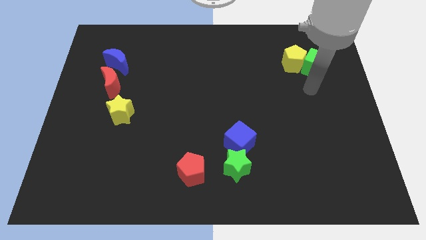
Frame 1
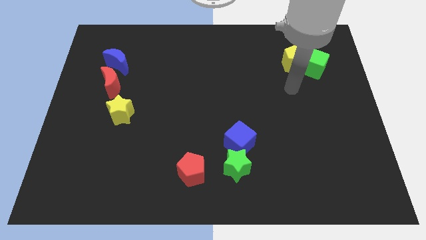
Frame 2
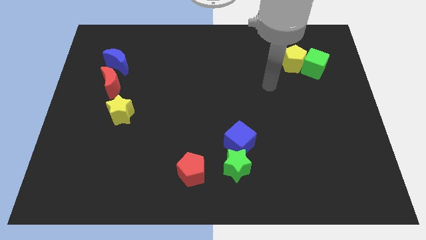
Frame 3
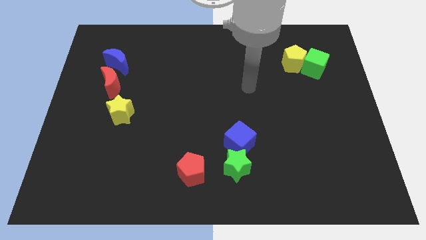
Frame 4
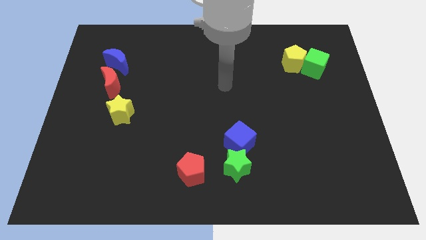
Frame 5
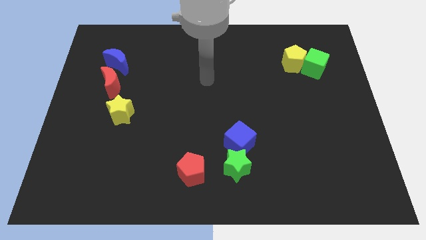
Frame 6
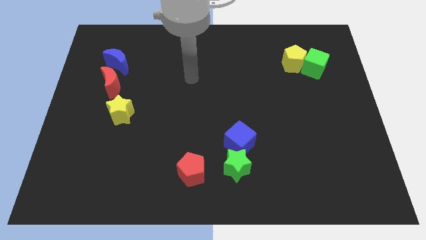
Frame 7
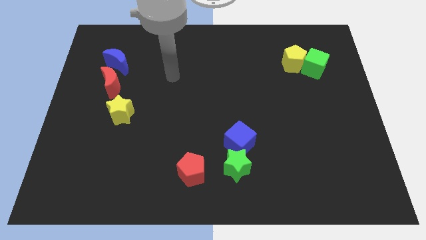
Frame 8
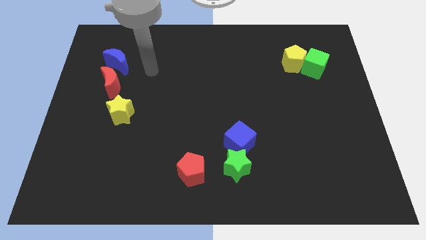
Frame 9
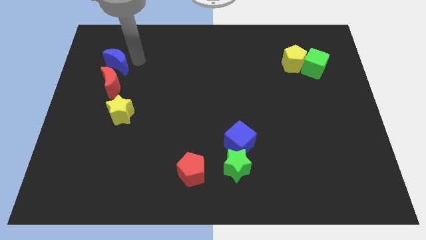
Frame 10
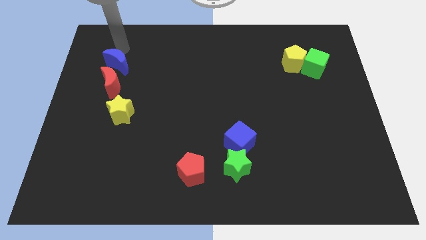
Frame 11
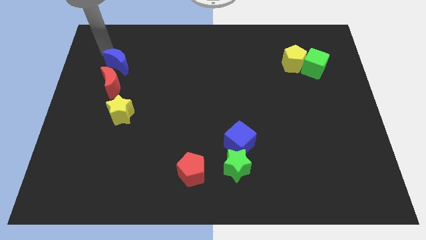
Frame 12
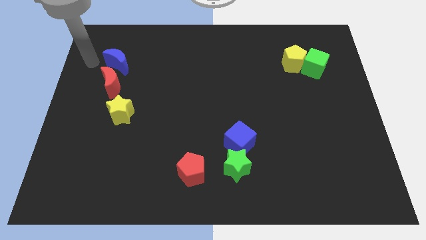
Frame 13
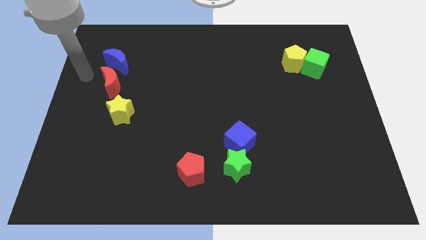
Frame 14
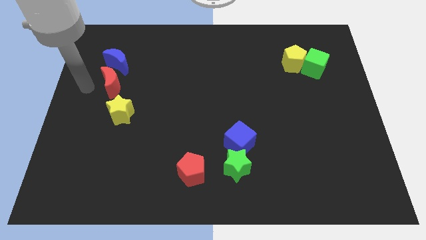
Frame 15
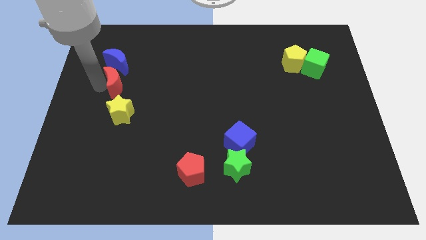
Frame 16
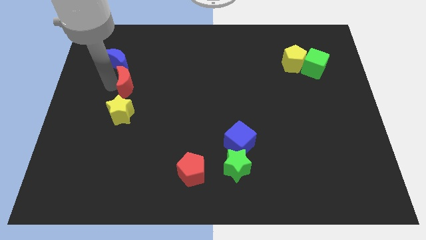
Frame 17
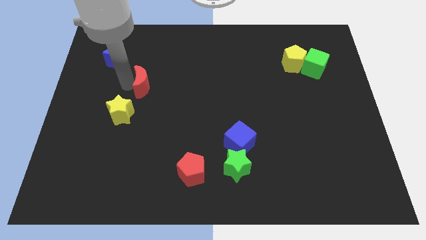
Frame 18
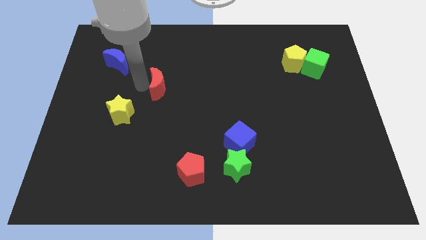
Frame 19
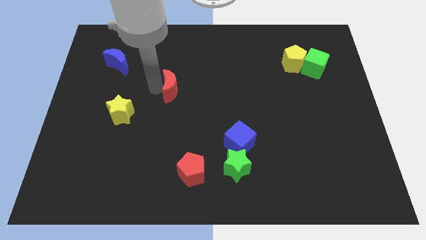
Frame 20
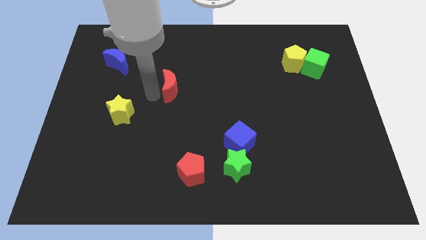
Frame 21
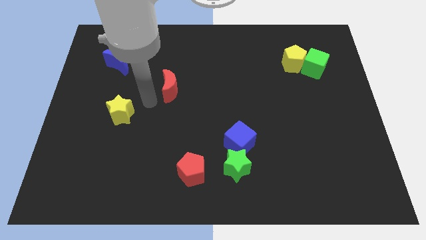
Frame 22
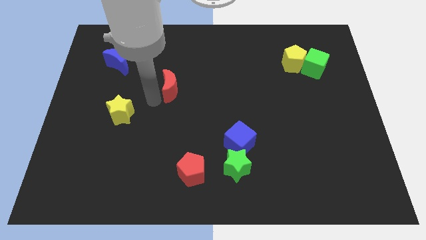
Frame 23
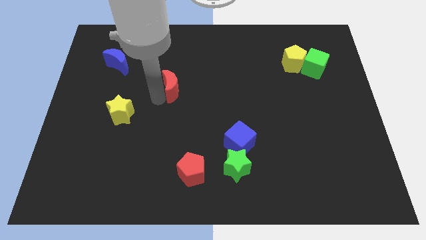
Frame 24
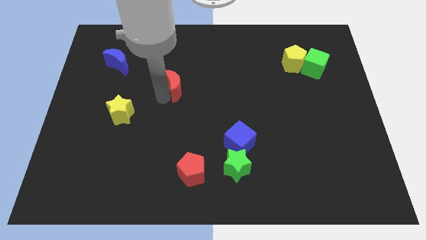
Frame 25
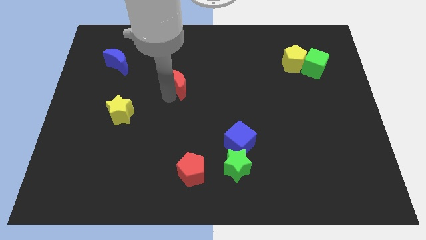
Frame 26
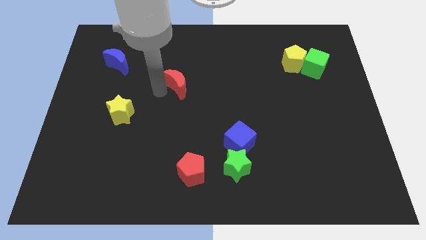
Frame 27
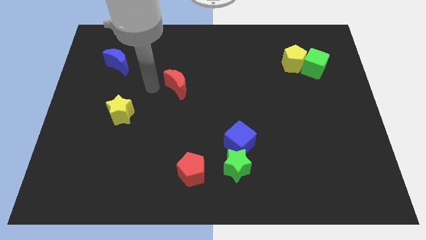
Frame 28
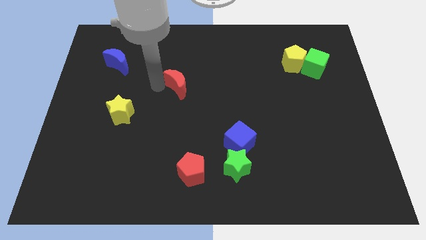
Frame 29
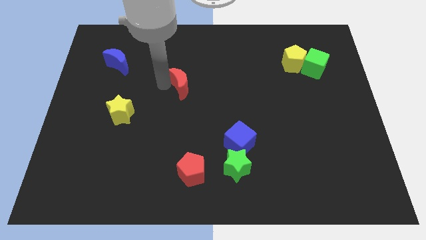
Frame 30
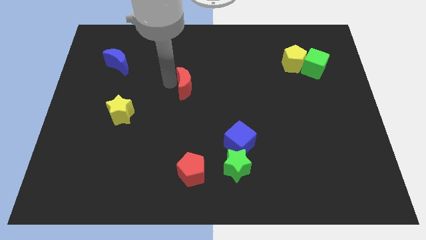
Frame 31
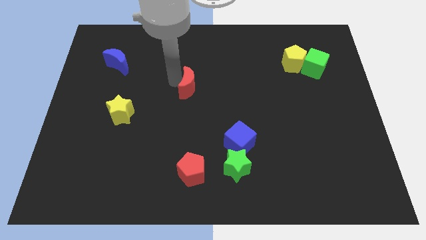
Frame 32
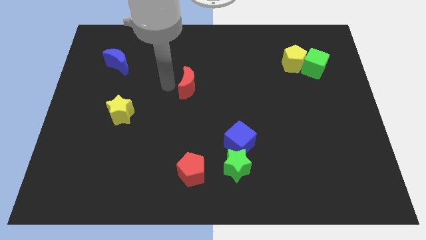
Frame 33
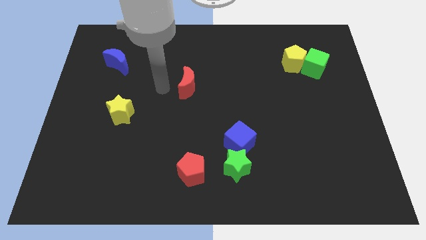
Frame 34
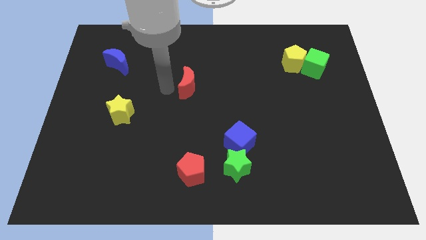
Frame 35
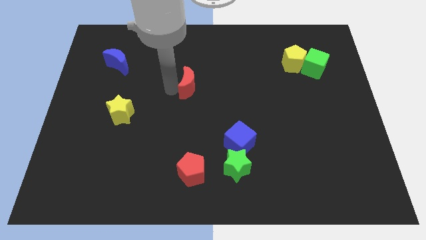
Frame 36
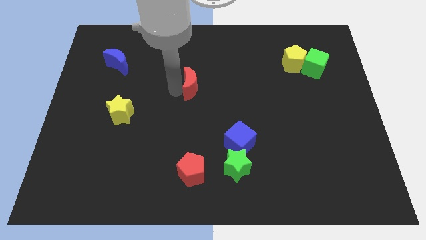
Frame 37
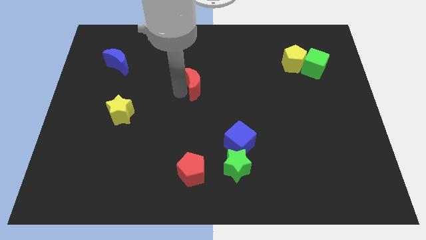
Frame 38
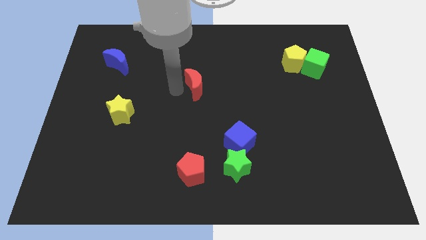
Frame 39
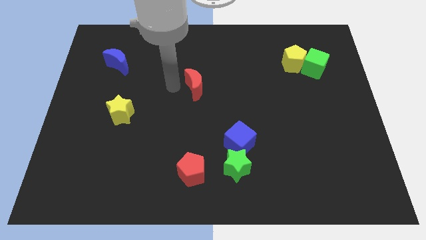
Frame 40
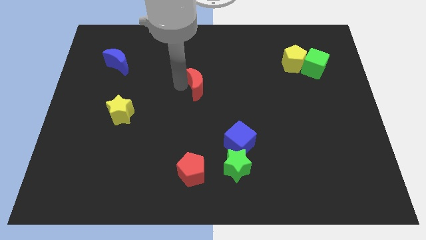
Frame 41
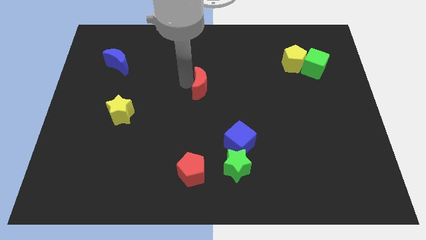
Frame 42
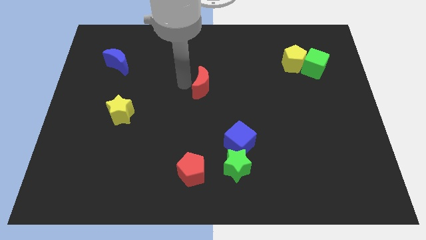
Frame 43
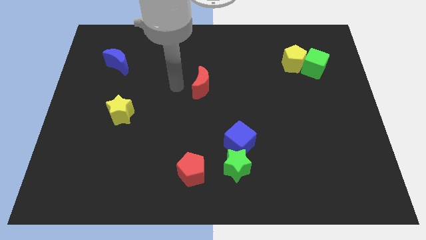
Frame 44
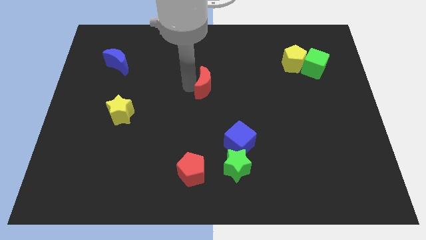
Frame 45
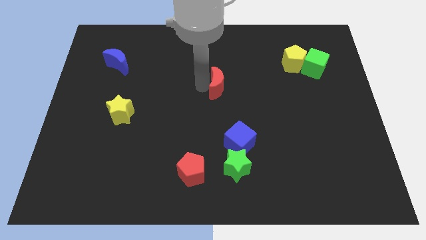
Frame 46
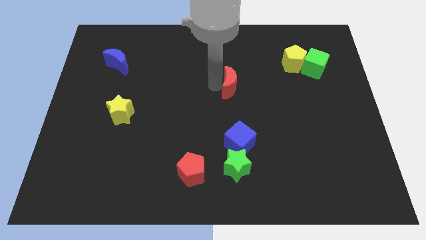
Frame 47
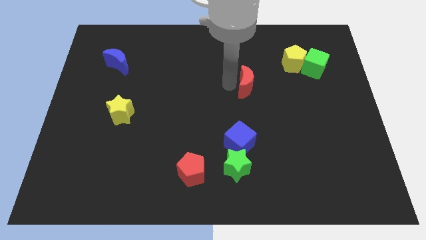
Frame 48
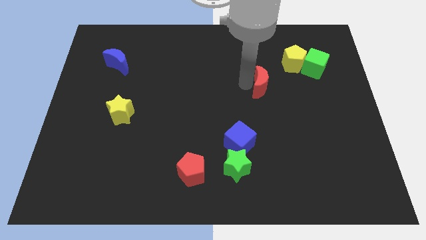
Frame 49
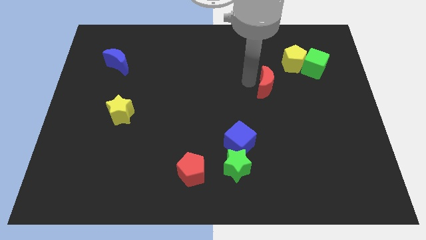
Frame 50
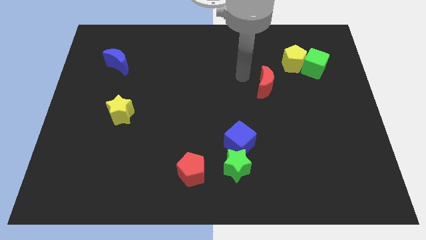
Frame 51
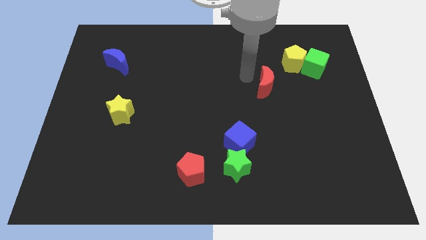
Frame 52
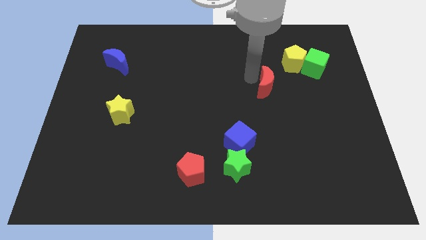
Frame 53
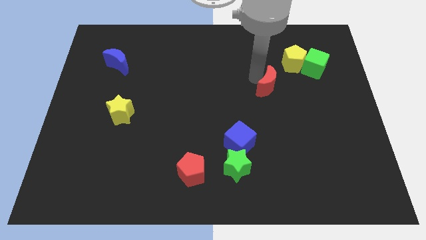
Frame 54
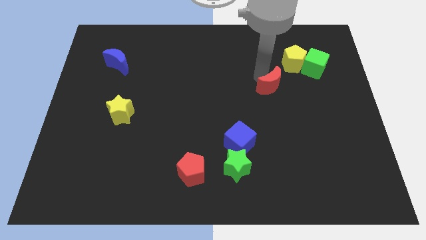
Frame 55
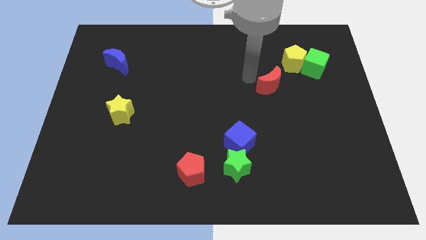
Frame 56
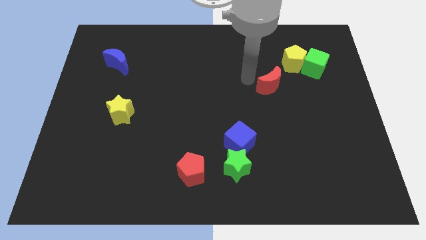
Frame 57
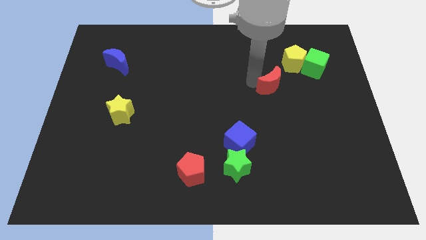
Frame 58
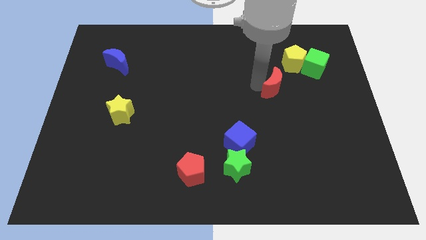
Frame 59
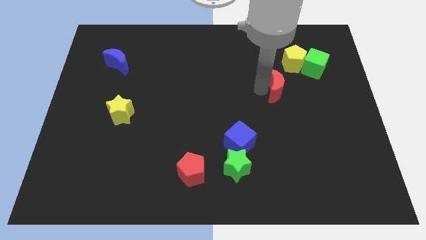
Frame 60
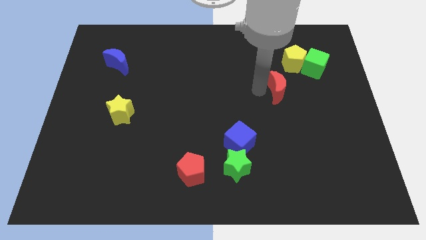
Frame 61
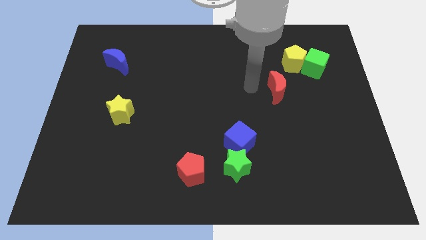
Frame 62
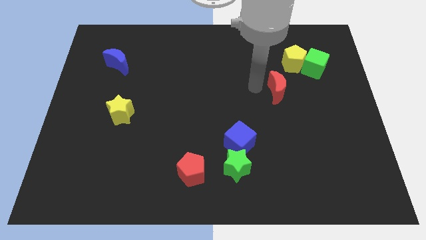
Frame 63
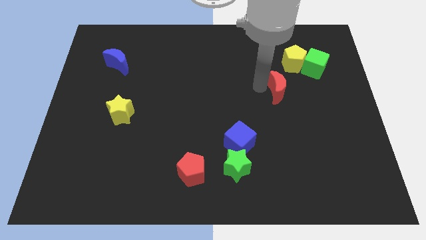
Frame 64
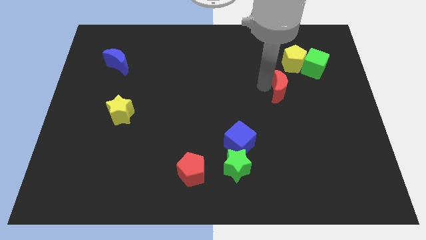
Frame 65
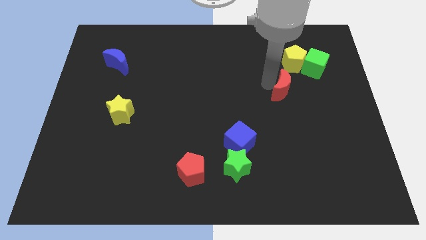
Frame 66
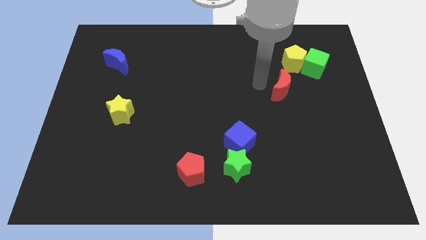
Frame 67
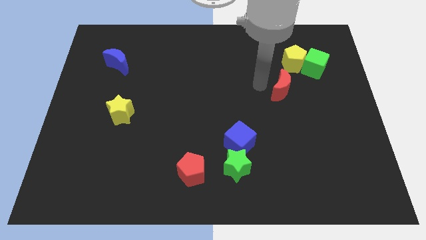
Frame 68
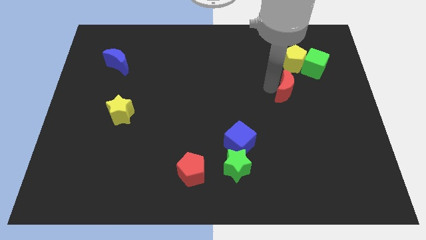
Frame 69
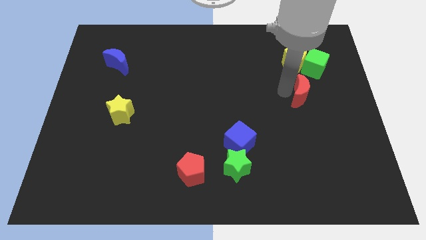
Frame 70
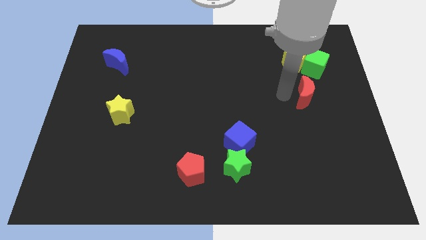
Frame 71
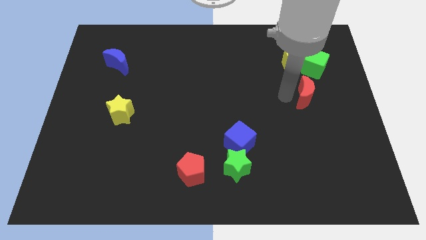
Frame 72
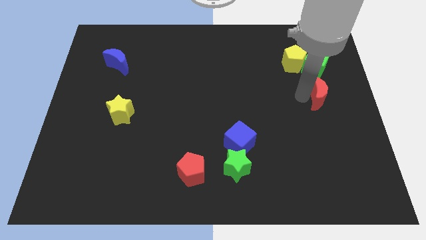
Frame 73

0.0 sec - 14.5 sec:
put the red moon to the right side of the board
